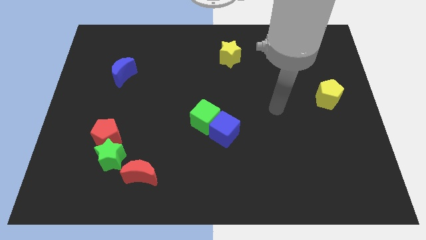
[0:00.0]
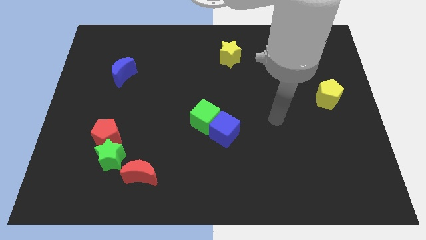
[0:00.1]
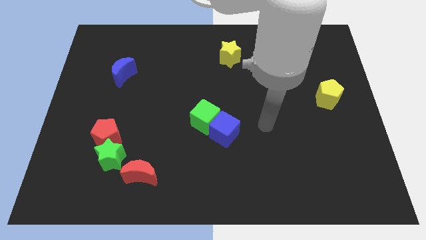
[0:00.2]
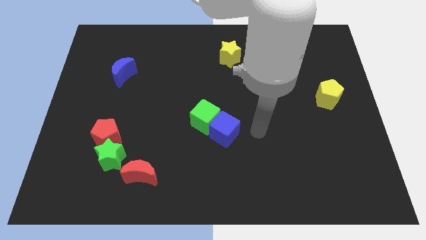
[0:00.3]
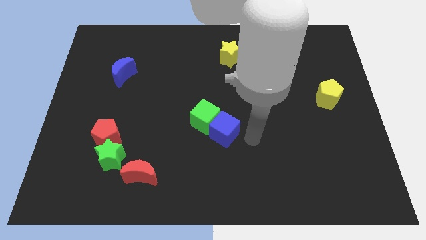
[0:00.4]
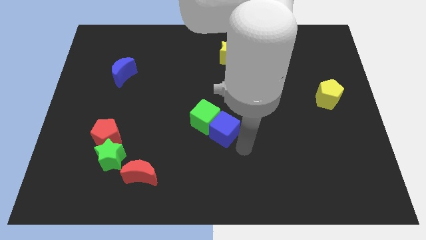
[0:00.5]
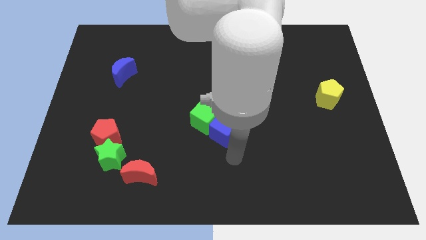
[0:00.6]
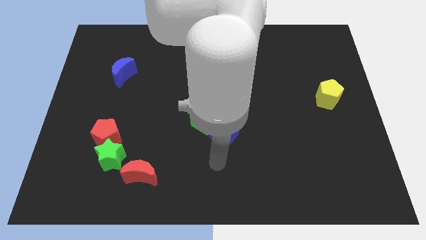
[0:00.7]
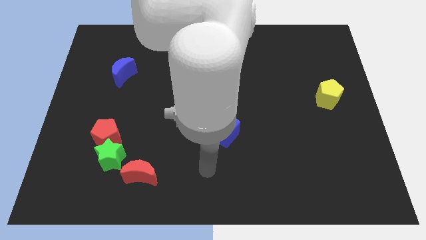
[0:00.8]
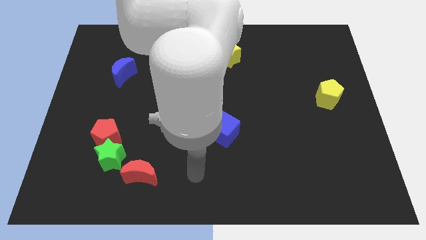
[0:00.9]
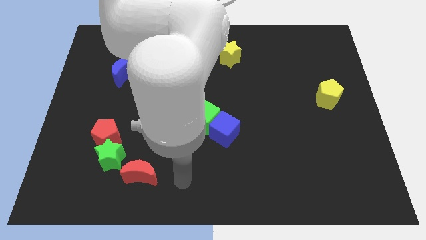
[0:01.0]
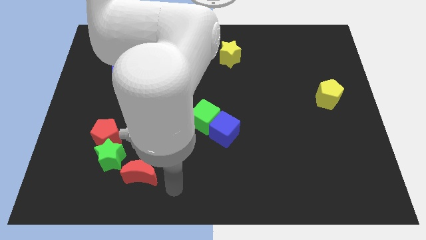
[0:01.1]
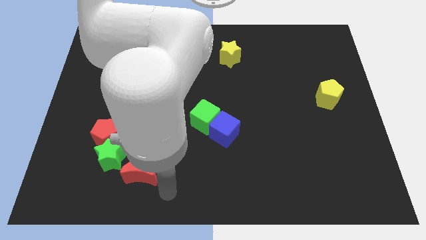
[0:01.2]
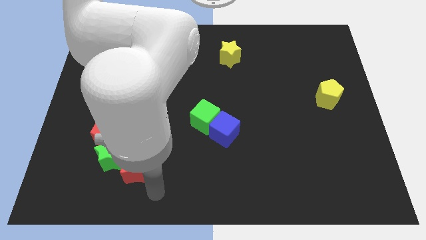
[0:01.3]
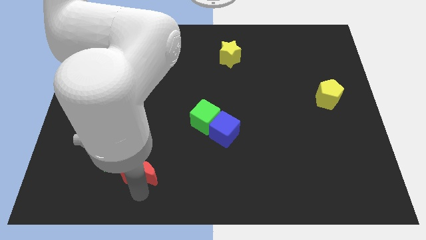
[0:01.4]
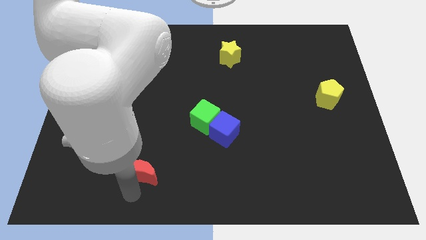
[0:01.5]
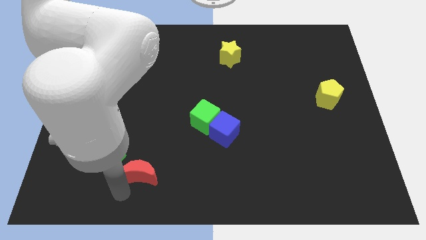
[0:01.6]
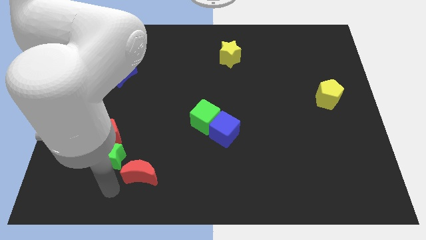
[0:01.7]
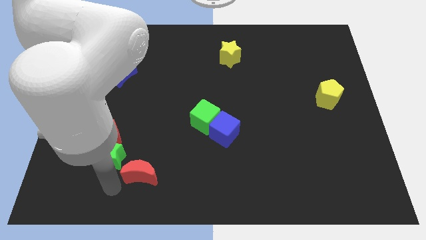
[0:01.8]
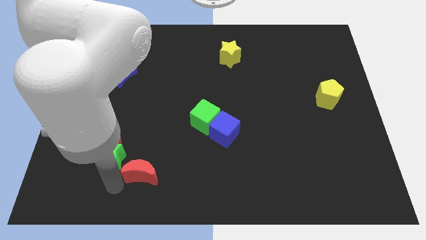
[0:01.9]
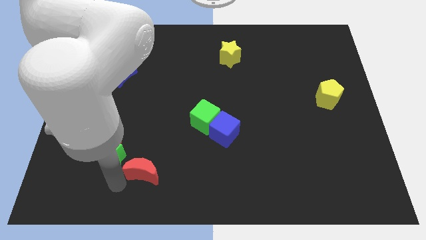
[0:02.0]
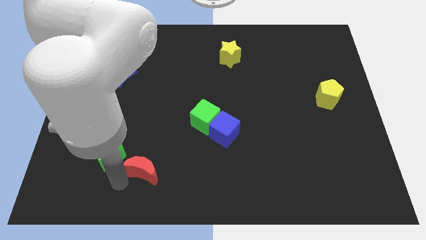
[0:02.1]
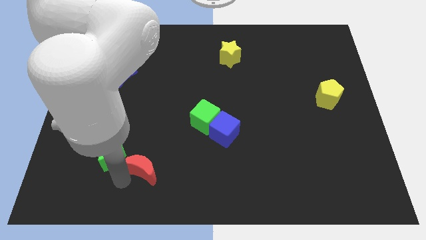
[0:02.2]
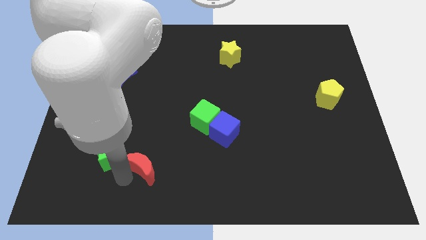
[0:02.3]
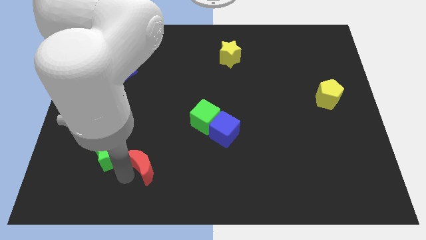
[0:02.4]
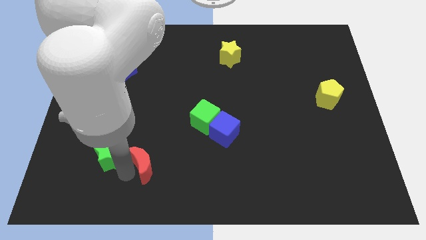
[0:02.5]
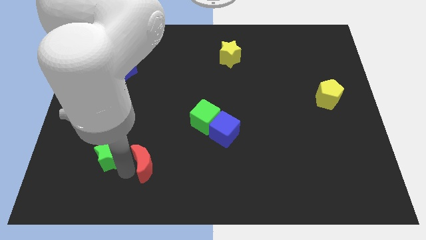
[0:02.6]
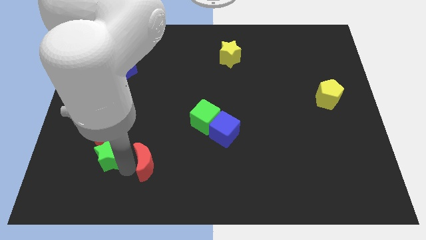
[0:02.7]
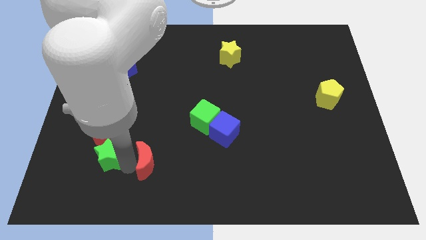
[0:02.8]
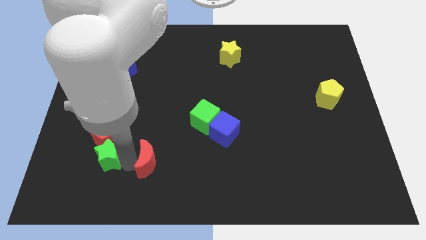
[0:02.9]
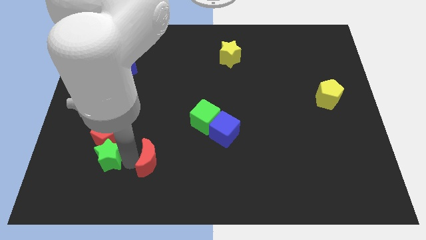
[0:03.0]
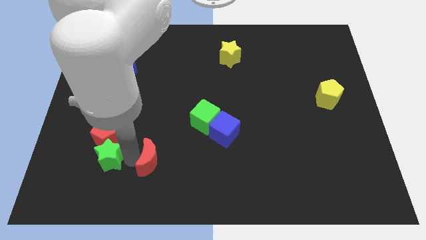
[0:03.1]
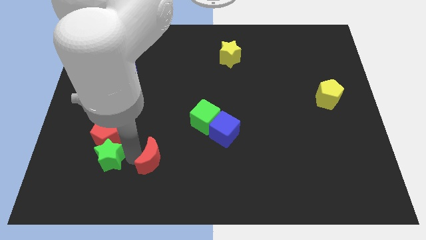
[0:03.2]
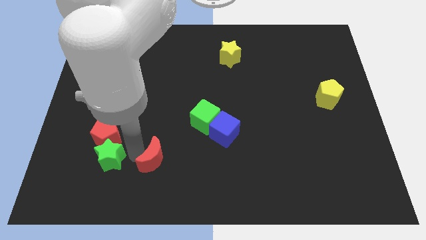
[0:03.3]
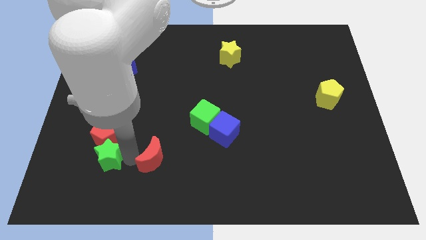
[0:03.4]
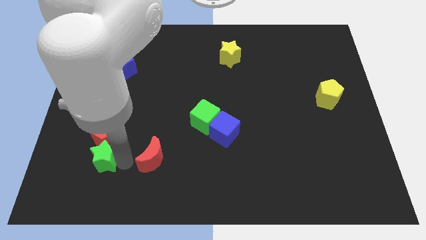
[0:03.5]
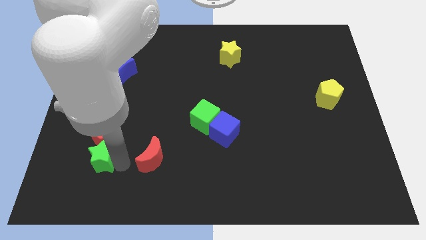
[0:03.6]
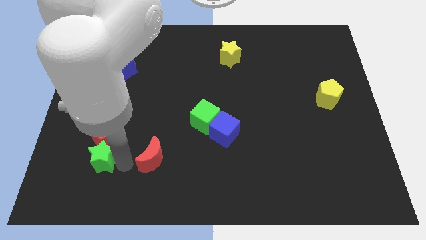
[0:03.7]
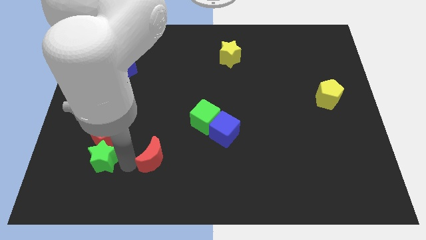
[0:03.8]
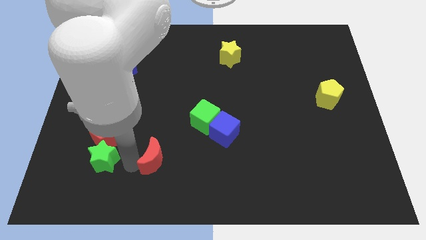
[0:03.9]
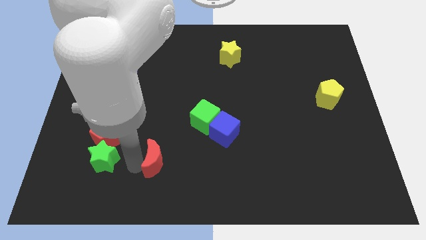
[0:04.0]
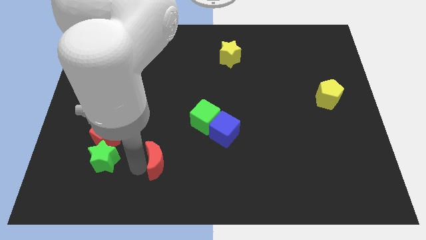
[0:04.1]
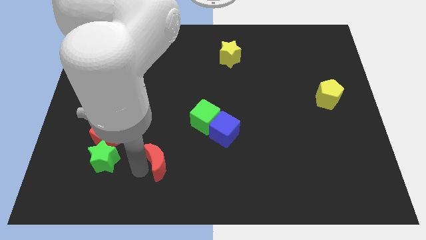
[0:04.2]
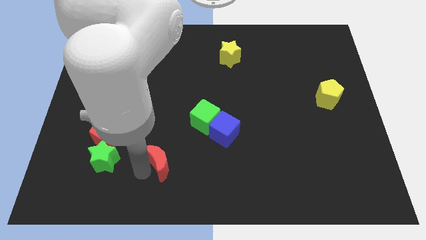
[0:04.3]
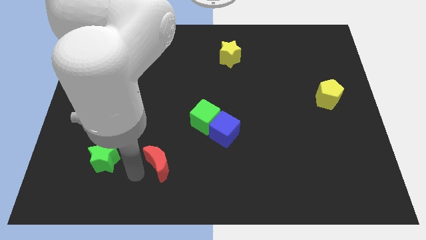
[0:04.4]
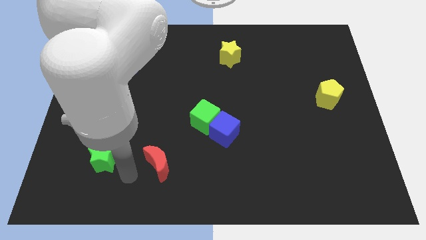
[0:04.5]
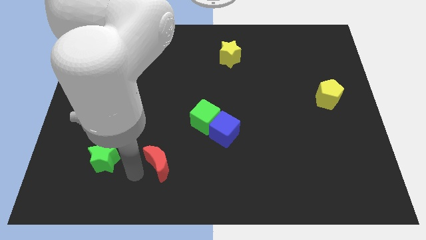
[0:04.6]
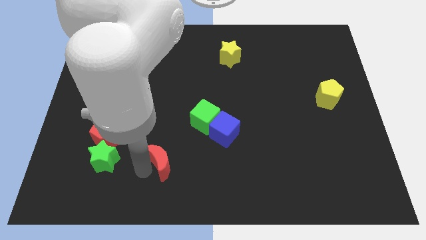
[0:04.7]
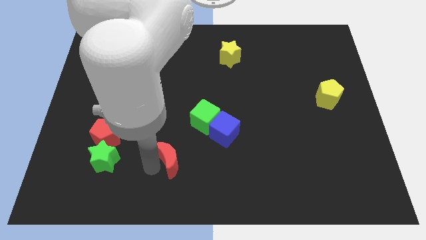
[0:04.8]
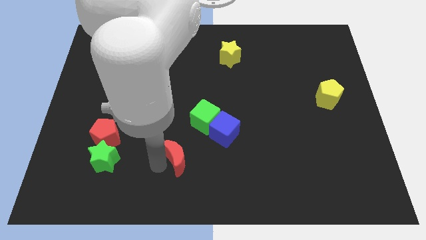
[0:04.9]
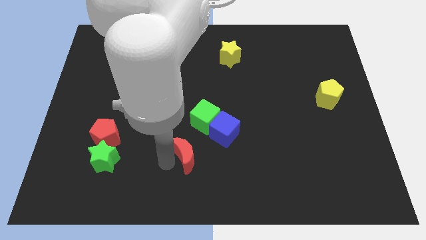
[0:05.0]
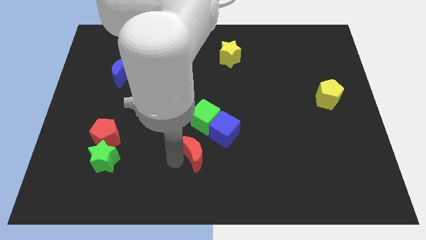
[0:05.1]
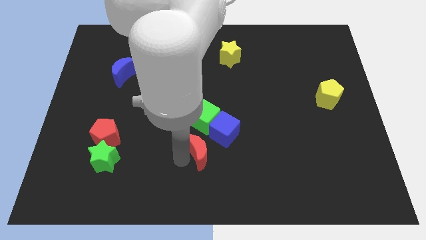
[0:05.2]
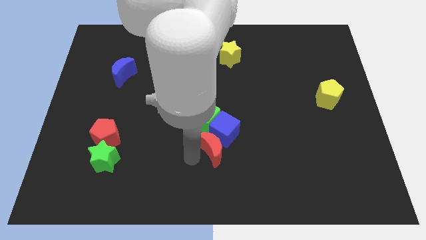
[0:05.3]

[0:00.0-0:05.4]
put the red moon close to the blue cube

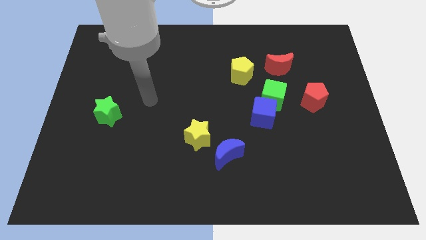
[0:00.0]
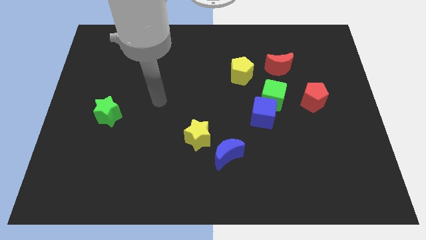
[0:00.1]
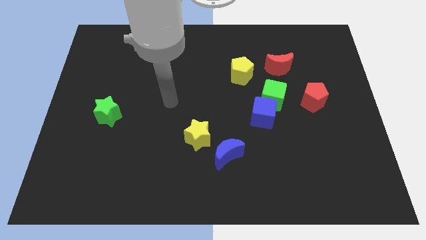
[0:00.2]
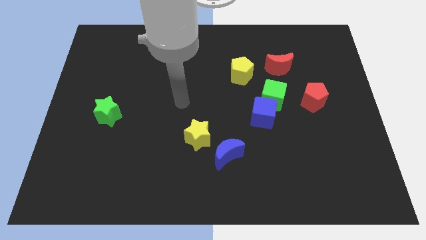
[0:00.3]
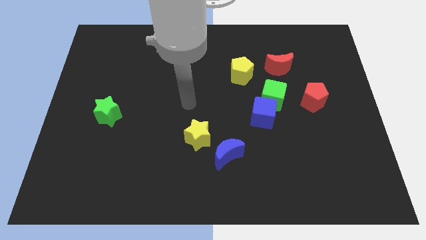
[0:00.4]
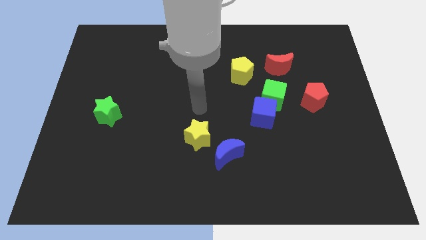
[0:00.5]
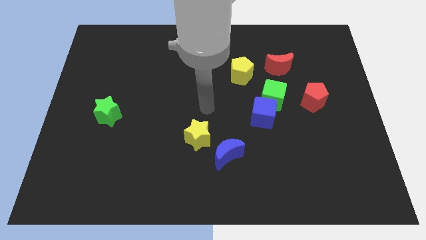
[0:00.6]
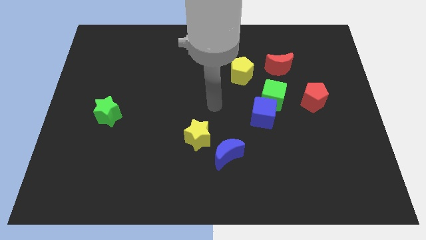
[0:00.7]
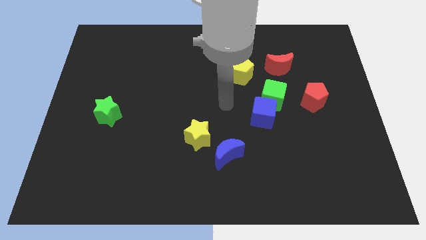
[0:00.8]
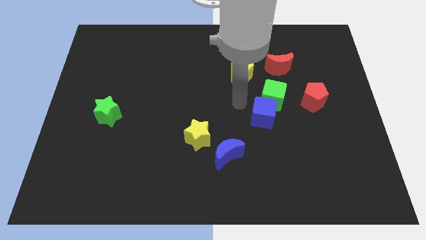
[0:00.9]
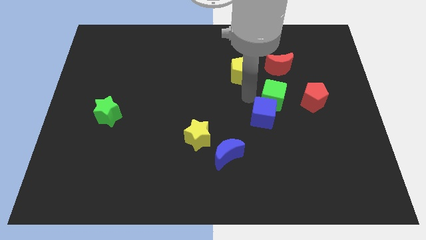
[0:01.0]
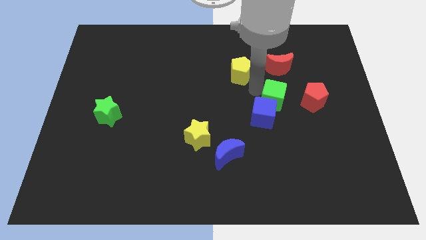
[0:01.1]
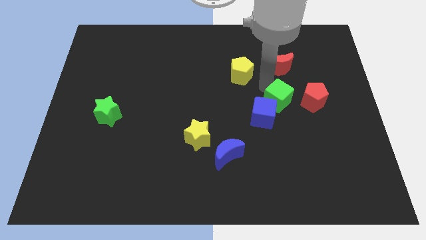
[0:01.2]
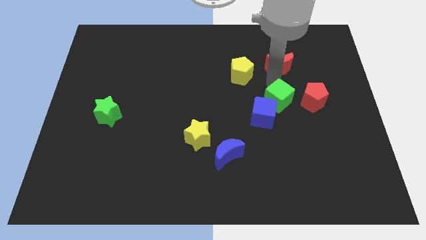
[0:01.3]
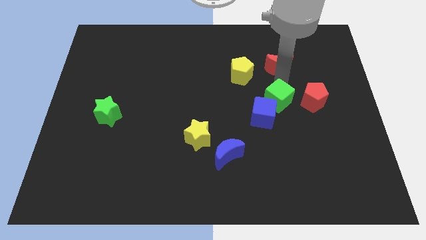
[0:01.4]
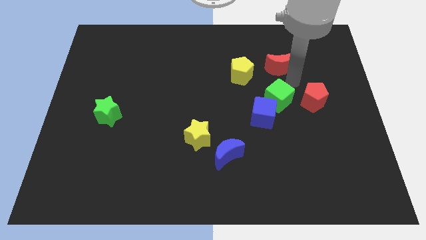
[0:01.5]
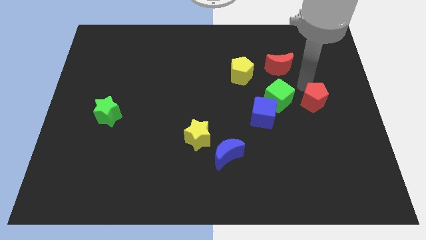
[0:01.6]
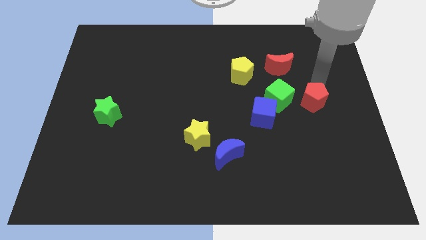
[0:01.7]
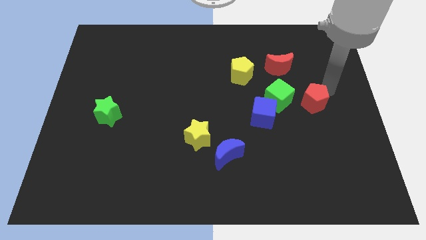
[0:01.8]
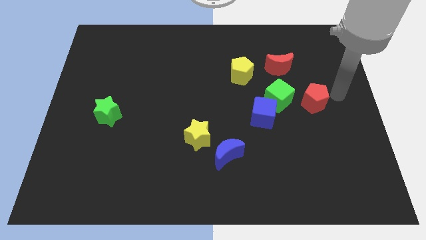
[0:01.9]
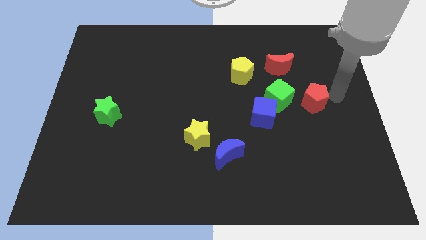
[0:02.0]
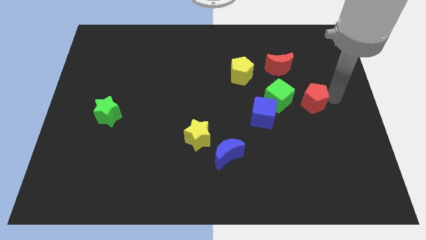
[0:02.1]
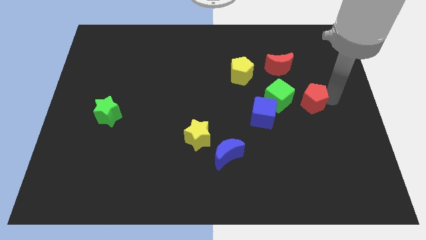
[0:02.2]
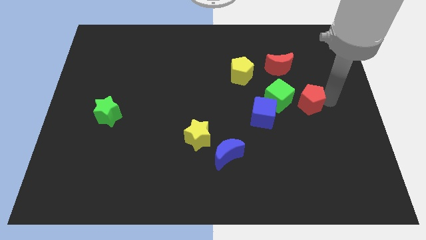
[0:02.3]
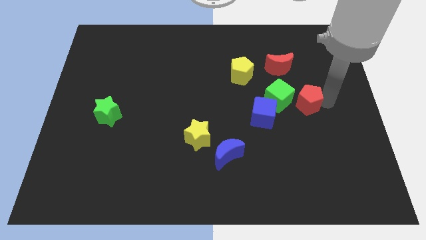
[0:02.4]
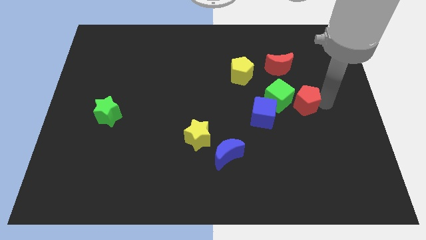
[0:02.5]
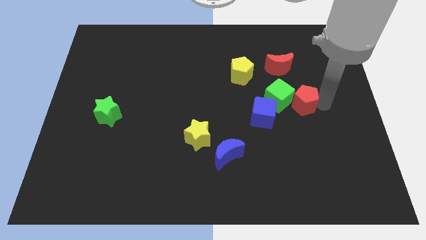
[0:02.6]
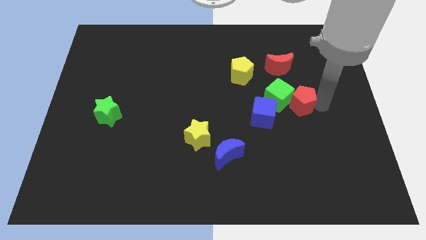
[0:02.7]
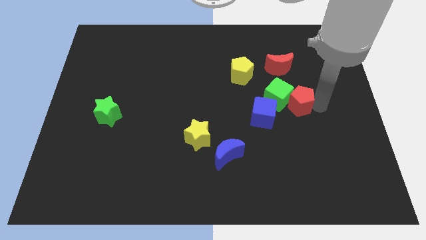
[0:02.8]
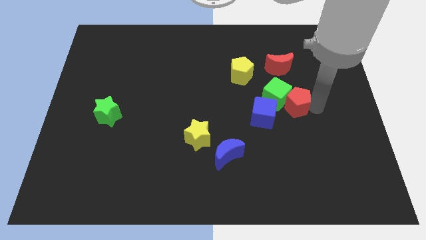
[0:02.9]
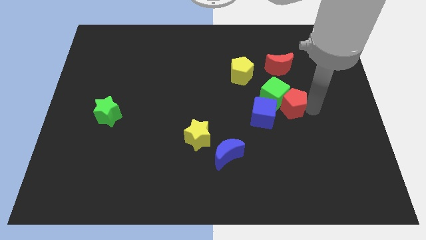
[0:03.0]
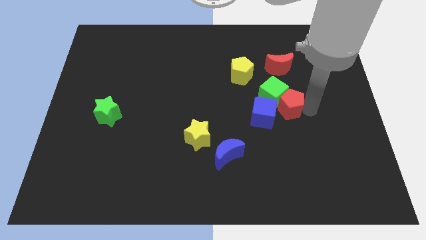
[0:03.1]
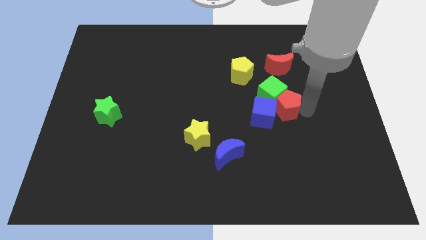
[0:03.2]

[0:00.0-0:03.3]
put the red pentagon next to the blue cube
